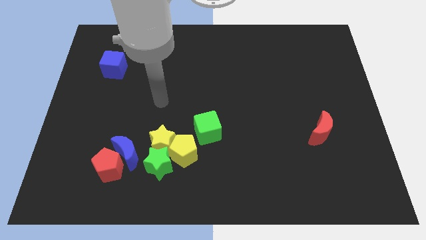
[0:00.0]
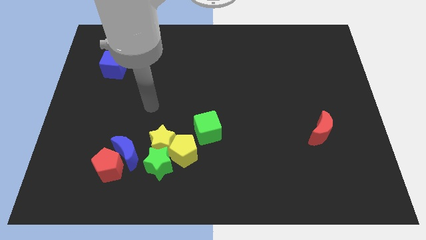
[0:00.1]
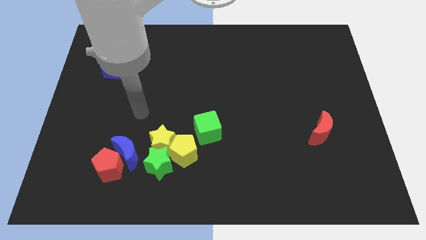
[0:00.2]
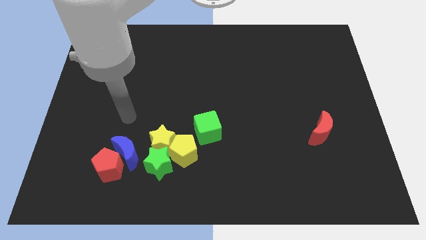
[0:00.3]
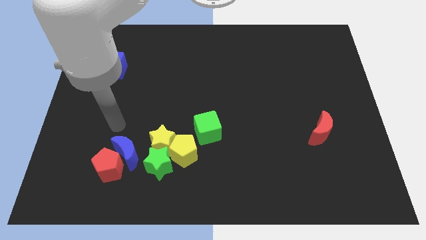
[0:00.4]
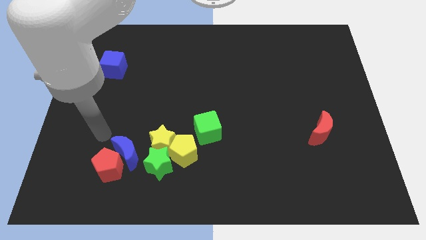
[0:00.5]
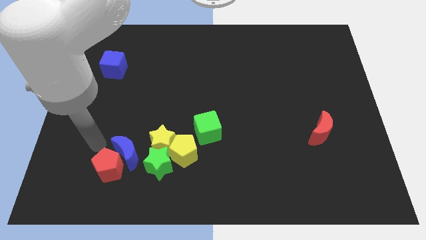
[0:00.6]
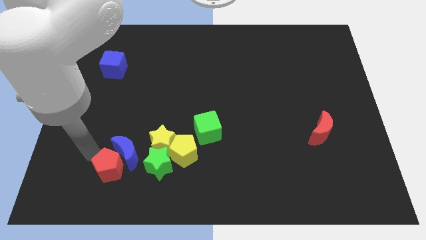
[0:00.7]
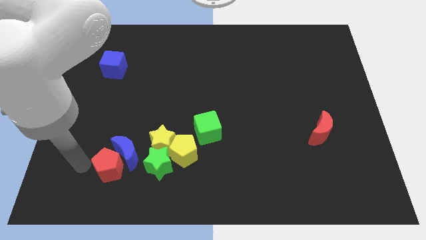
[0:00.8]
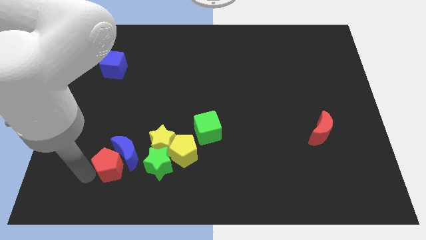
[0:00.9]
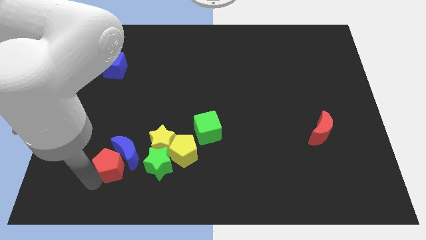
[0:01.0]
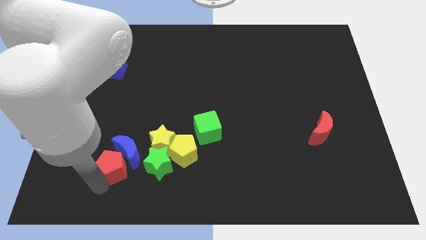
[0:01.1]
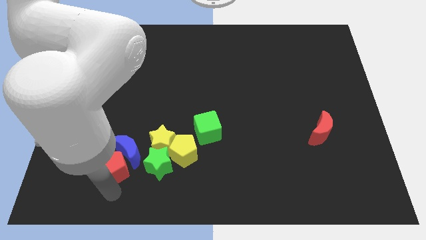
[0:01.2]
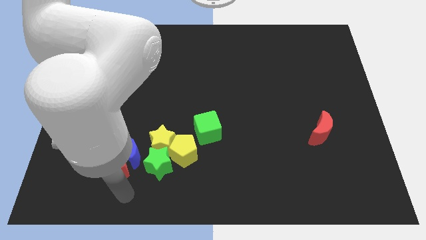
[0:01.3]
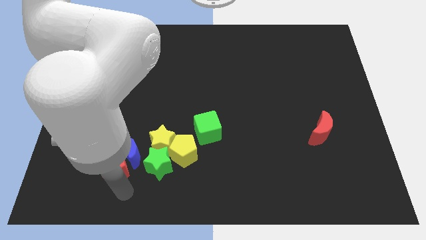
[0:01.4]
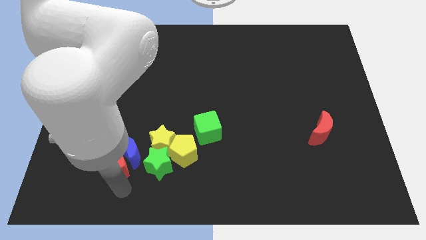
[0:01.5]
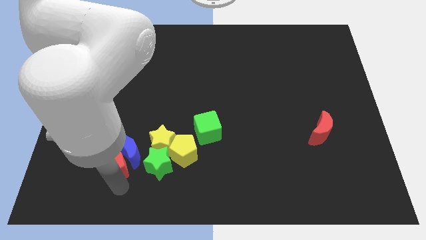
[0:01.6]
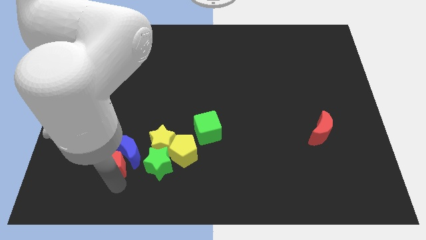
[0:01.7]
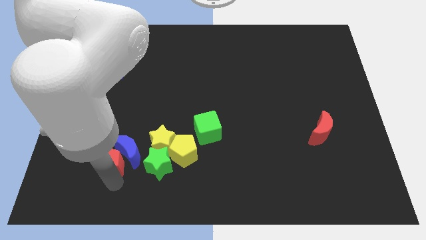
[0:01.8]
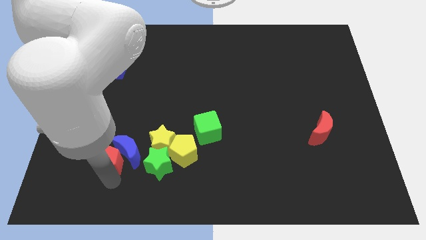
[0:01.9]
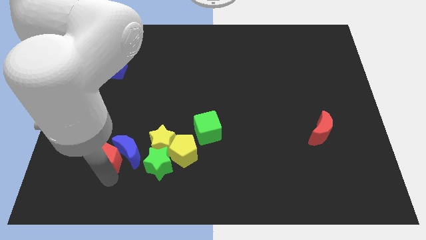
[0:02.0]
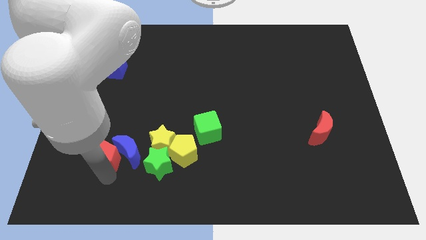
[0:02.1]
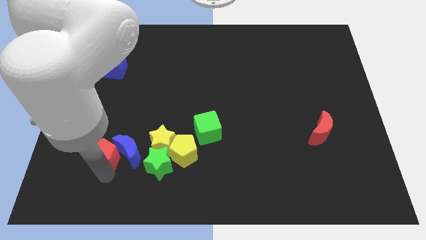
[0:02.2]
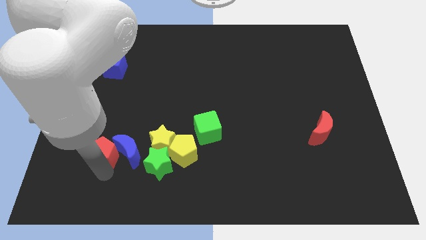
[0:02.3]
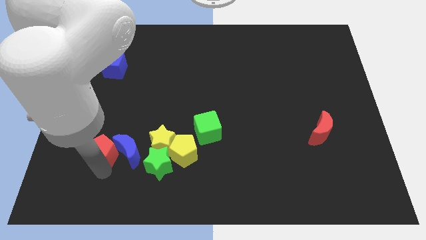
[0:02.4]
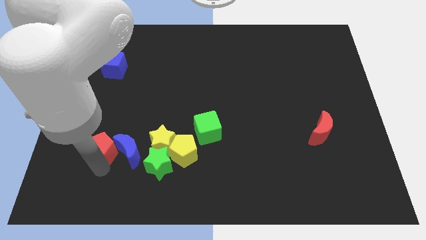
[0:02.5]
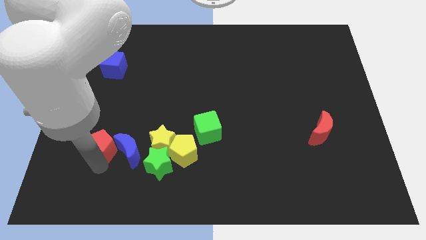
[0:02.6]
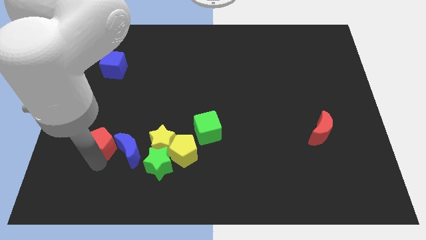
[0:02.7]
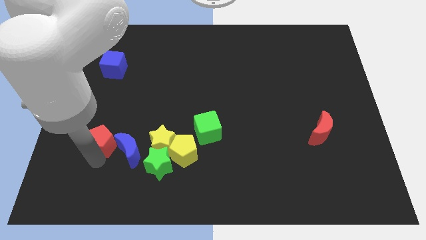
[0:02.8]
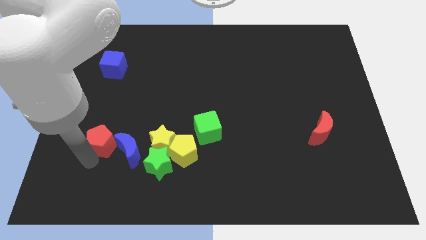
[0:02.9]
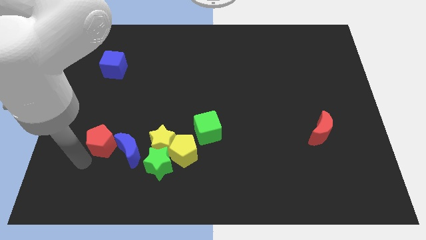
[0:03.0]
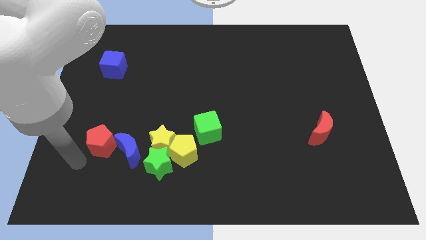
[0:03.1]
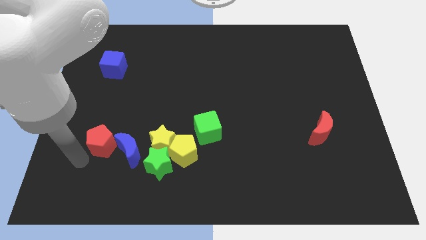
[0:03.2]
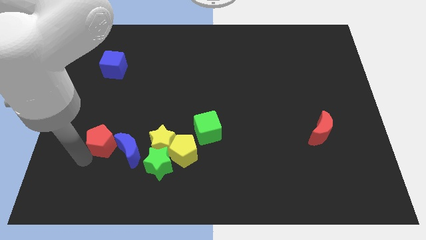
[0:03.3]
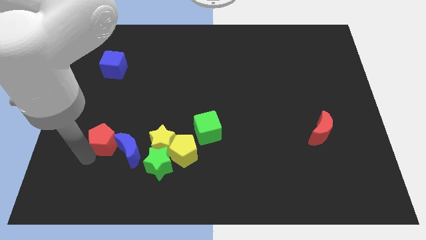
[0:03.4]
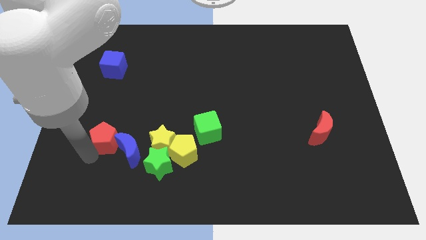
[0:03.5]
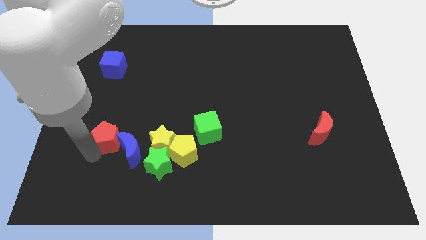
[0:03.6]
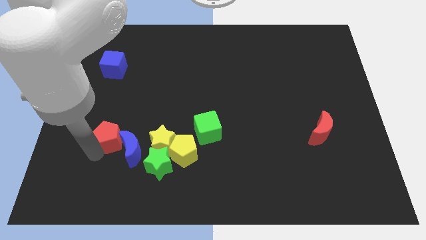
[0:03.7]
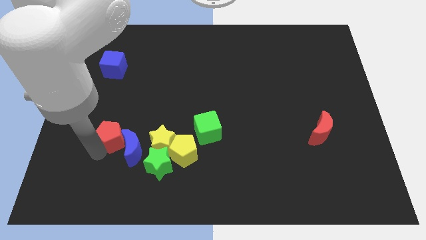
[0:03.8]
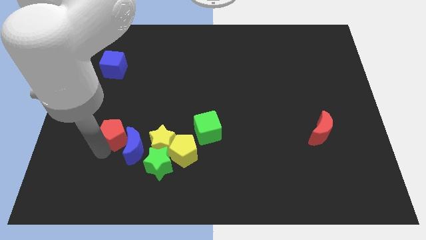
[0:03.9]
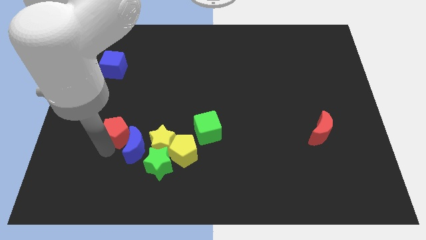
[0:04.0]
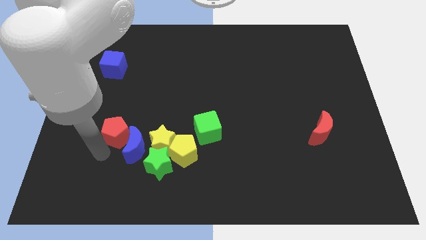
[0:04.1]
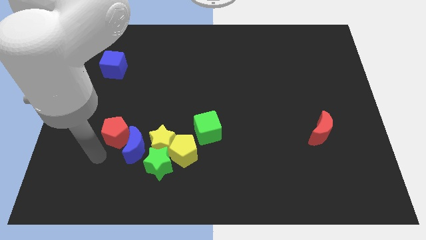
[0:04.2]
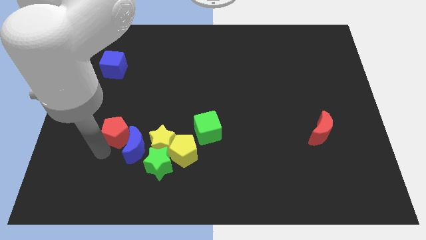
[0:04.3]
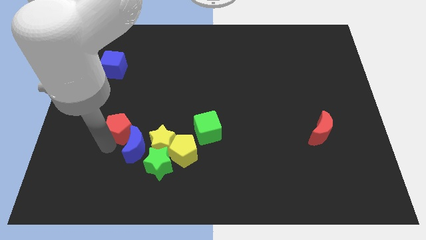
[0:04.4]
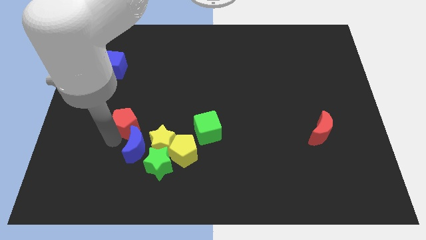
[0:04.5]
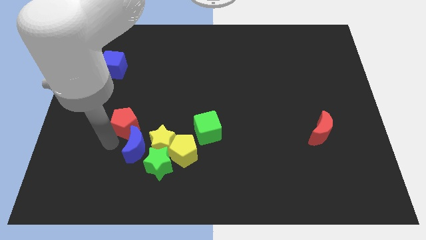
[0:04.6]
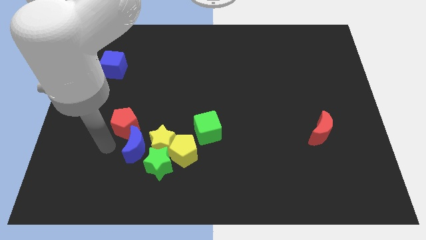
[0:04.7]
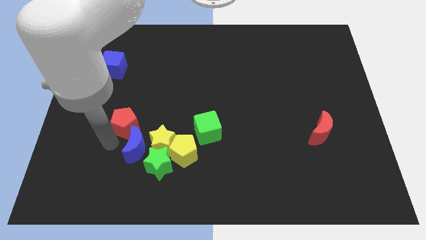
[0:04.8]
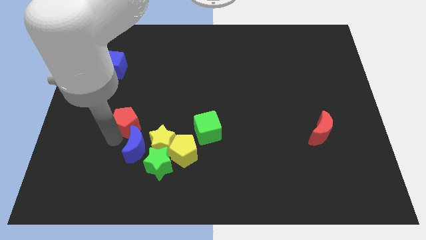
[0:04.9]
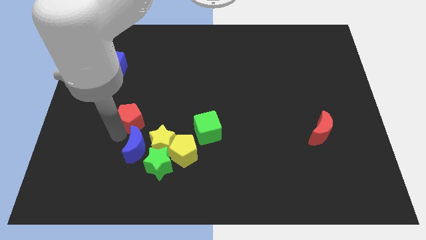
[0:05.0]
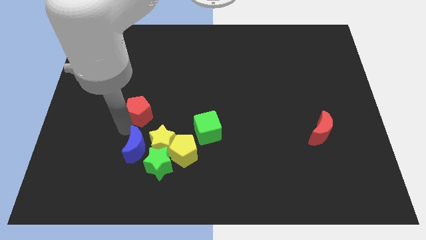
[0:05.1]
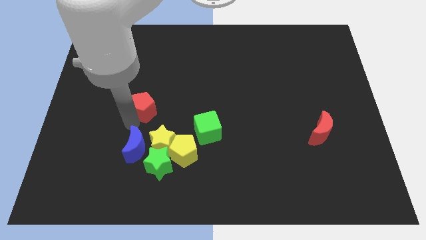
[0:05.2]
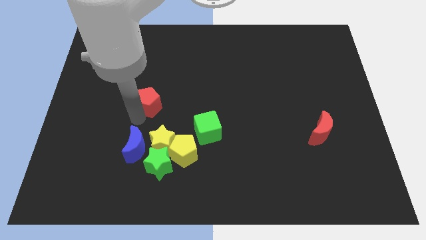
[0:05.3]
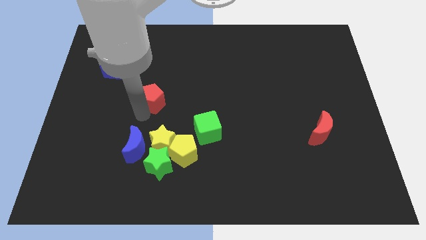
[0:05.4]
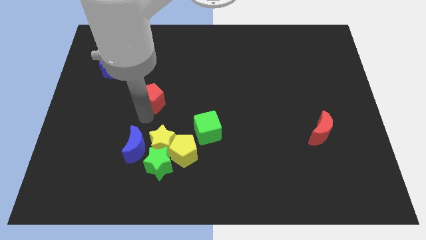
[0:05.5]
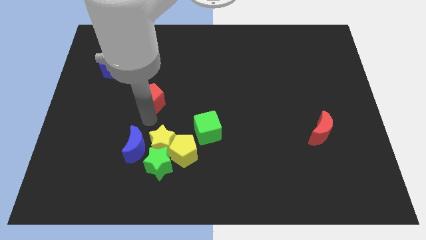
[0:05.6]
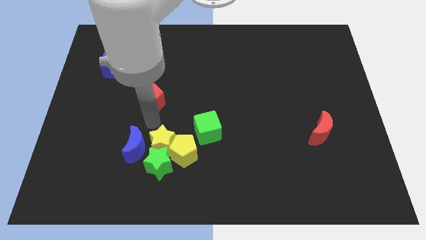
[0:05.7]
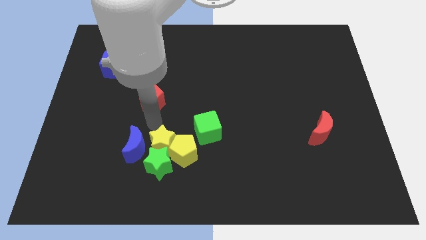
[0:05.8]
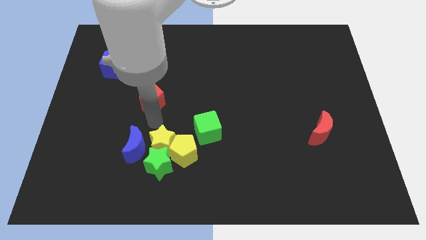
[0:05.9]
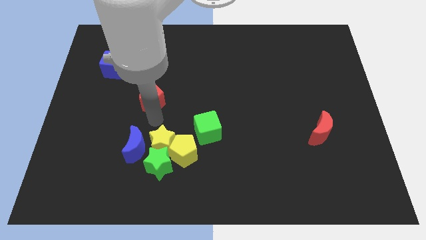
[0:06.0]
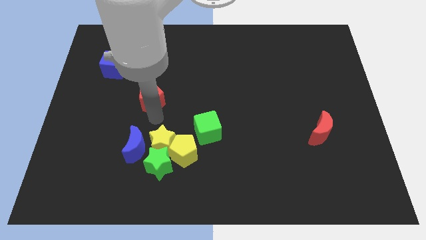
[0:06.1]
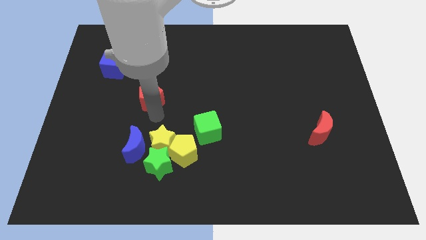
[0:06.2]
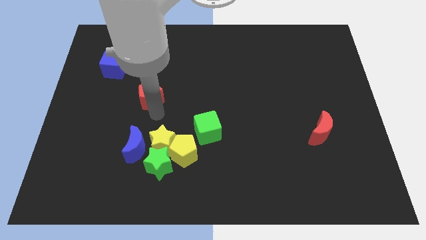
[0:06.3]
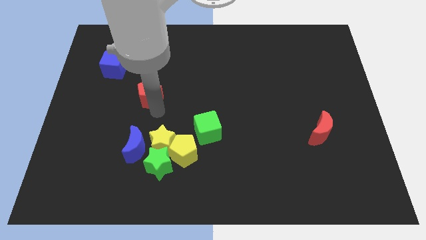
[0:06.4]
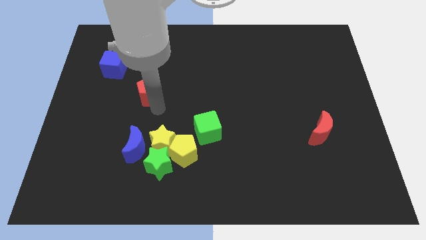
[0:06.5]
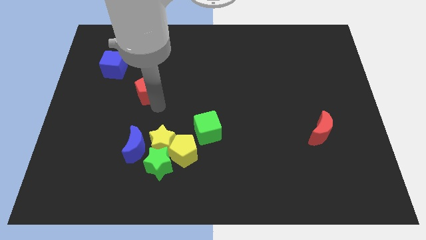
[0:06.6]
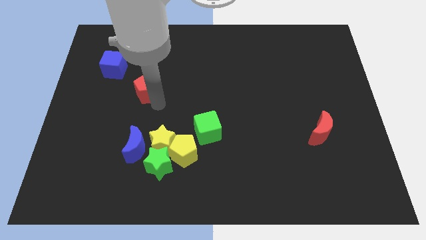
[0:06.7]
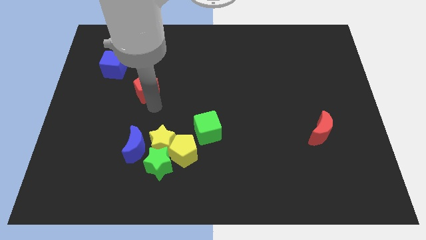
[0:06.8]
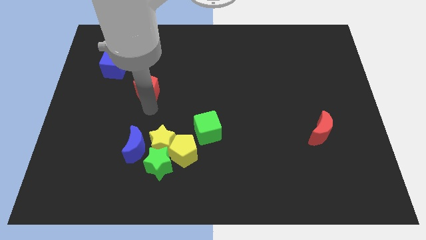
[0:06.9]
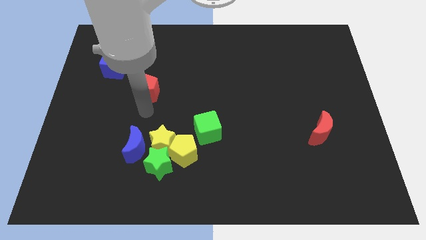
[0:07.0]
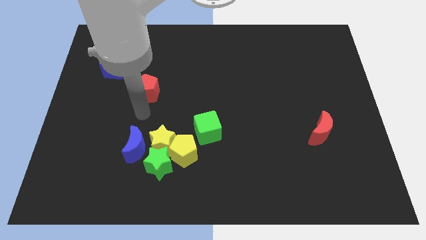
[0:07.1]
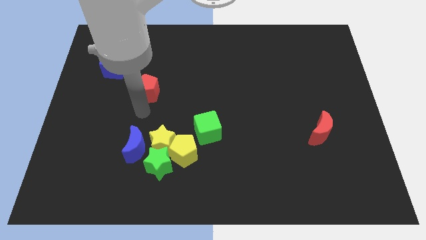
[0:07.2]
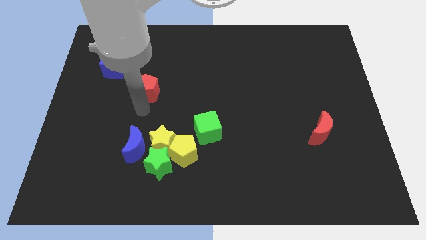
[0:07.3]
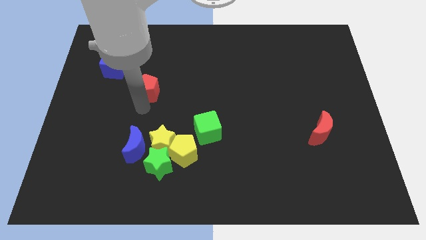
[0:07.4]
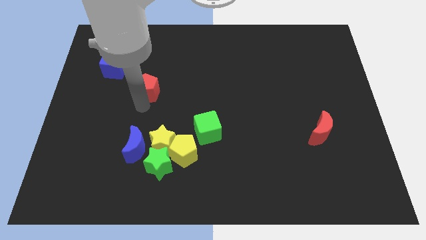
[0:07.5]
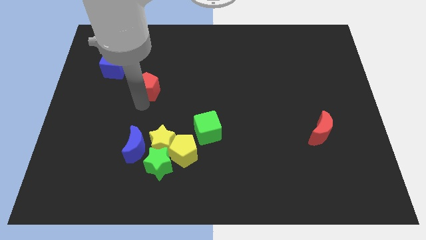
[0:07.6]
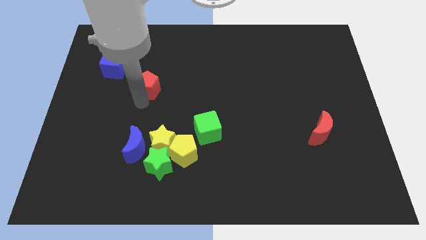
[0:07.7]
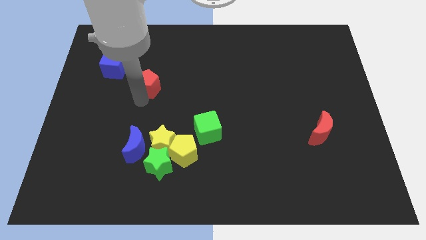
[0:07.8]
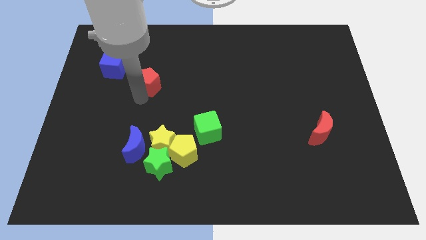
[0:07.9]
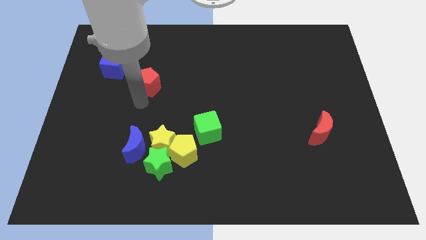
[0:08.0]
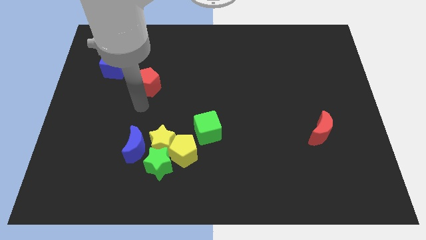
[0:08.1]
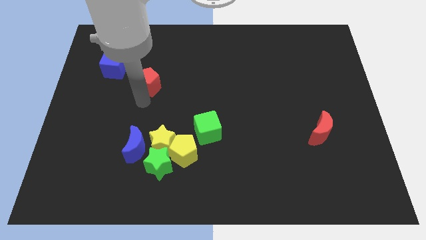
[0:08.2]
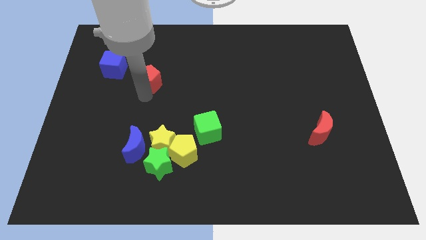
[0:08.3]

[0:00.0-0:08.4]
push the red pentagon right of the blue cube
